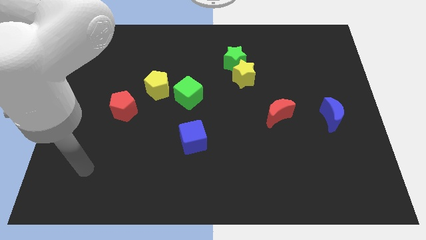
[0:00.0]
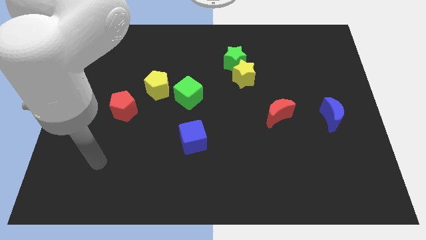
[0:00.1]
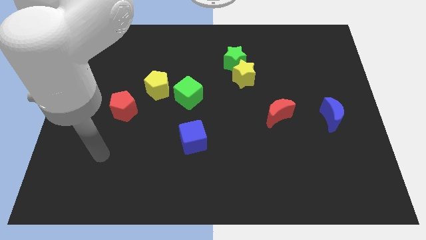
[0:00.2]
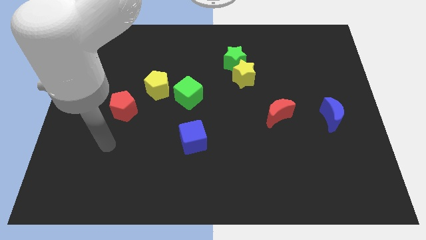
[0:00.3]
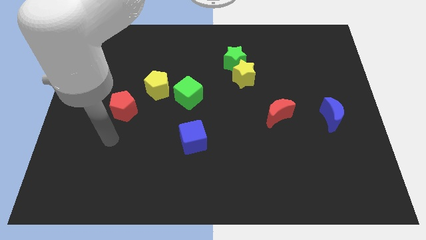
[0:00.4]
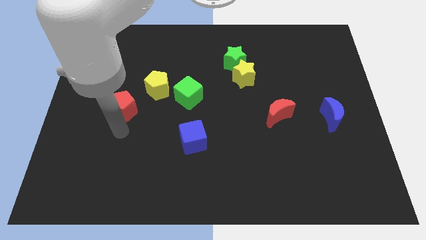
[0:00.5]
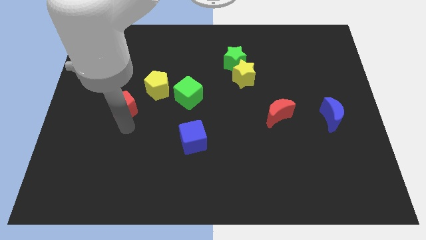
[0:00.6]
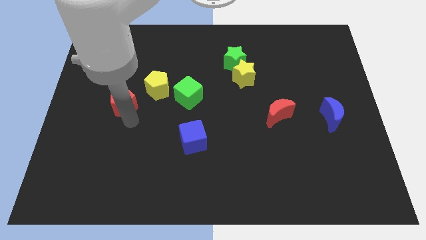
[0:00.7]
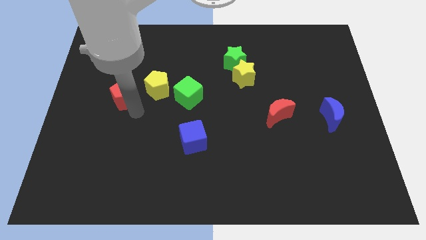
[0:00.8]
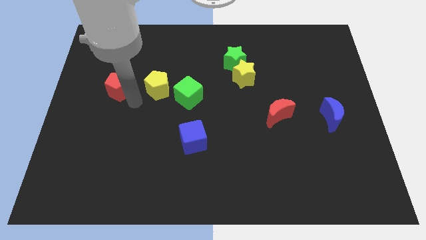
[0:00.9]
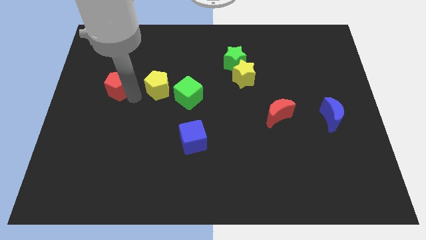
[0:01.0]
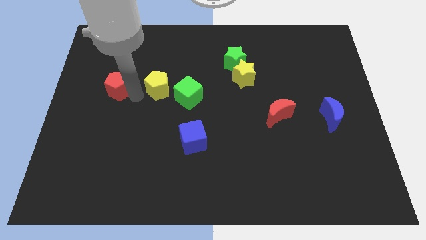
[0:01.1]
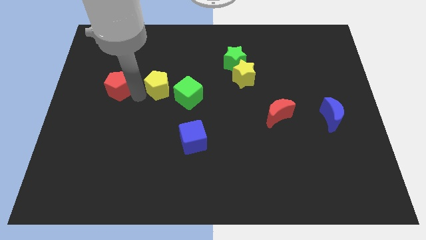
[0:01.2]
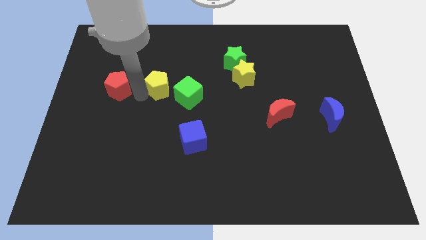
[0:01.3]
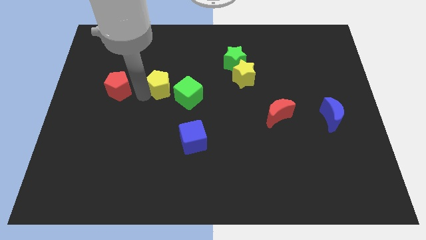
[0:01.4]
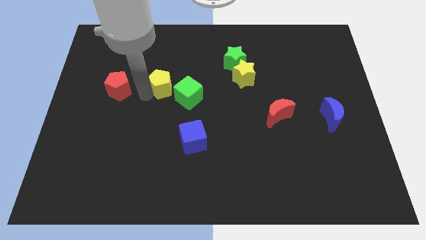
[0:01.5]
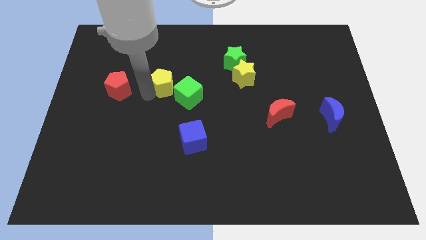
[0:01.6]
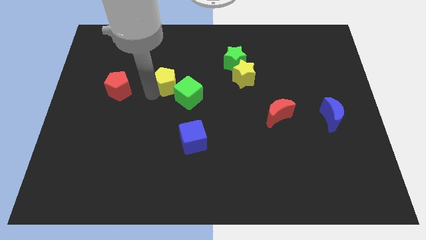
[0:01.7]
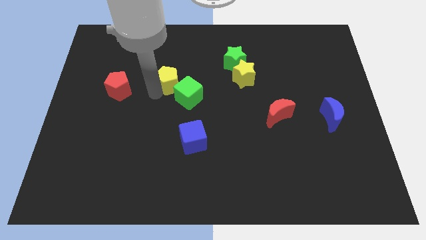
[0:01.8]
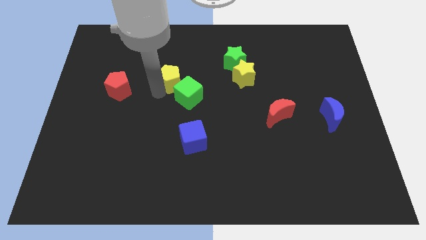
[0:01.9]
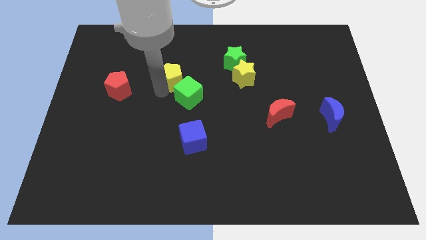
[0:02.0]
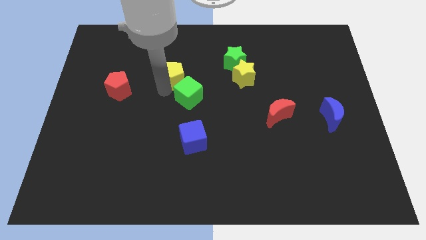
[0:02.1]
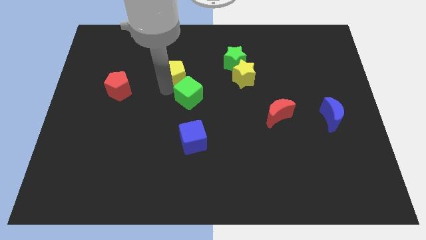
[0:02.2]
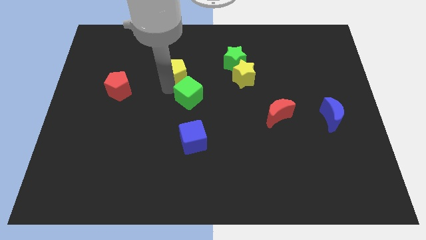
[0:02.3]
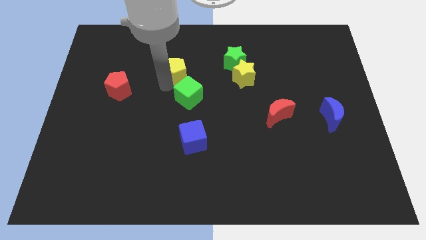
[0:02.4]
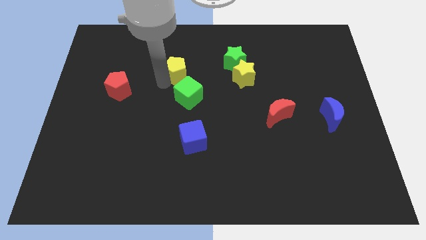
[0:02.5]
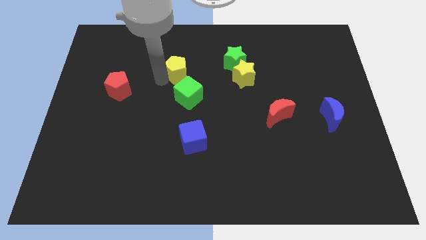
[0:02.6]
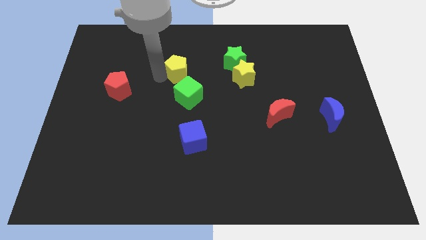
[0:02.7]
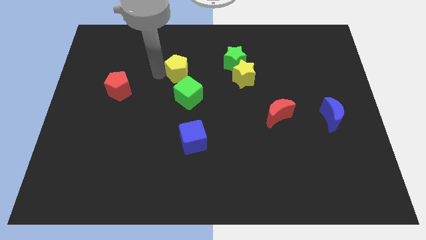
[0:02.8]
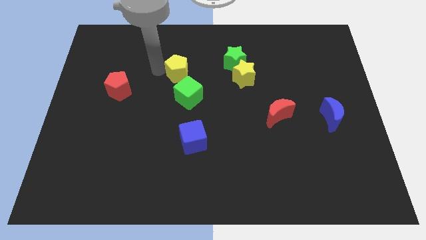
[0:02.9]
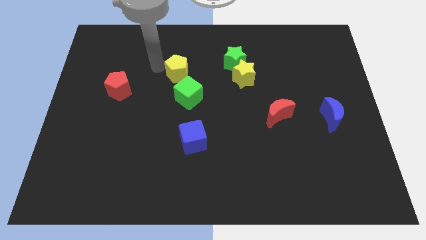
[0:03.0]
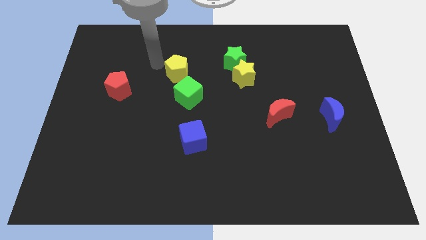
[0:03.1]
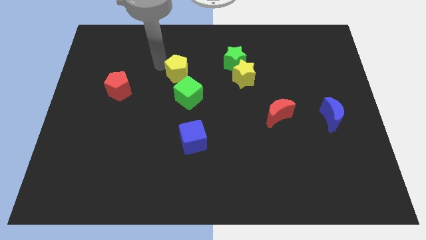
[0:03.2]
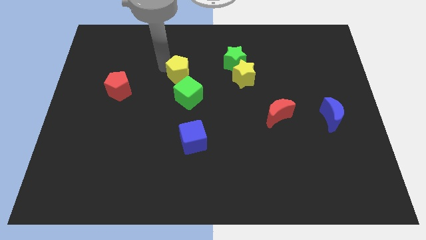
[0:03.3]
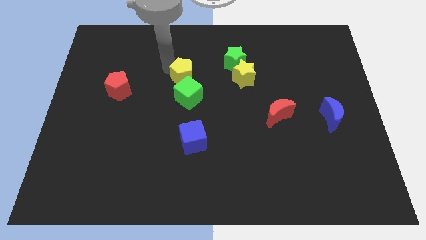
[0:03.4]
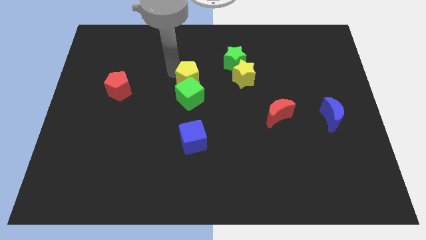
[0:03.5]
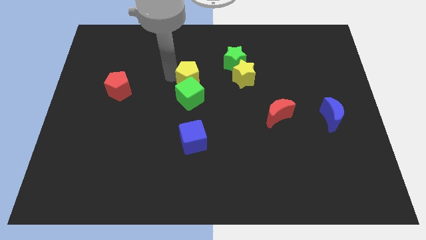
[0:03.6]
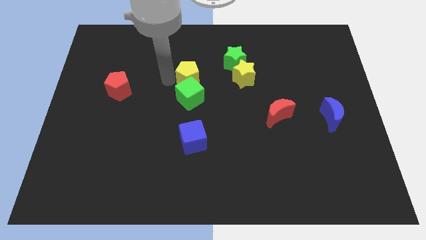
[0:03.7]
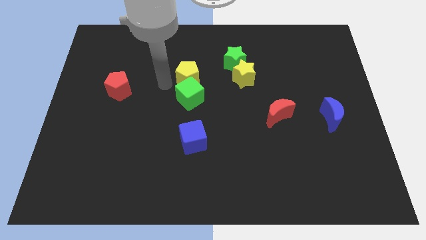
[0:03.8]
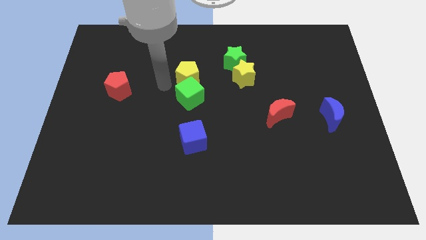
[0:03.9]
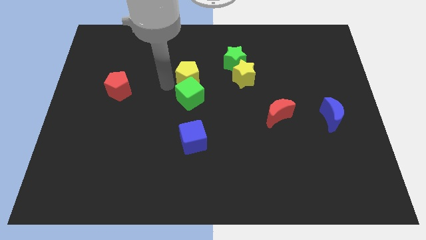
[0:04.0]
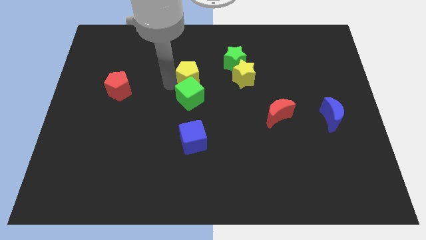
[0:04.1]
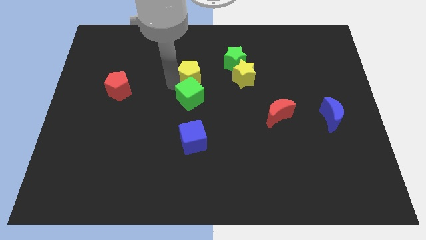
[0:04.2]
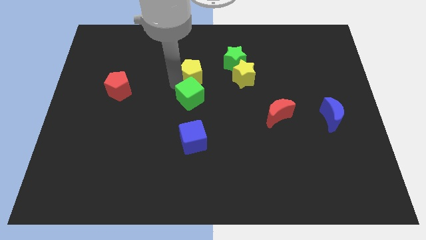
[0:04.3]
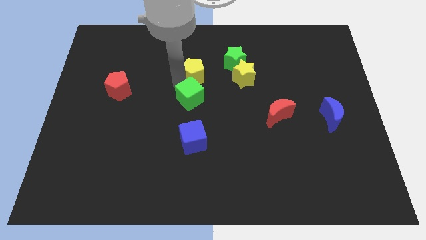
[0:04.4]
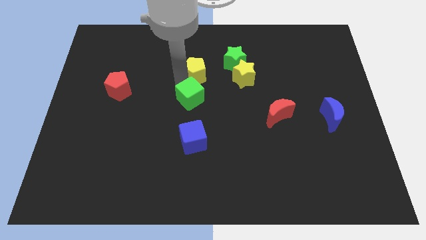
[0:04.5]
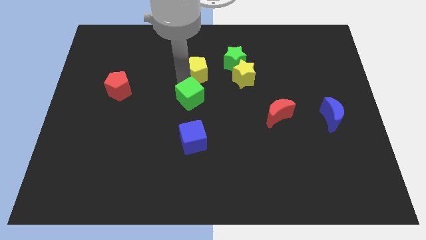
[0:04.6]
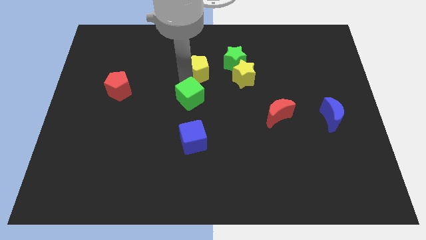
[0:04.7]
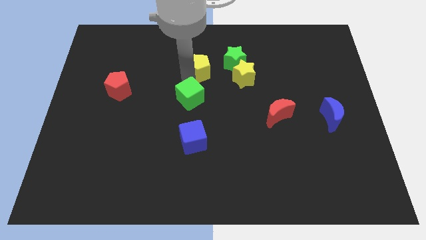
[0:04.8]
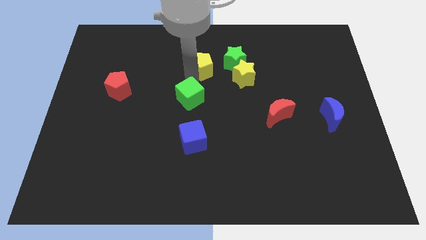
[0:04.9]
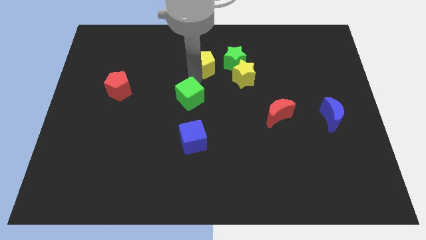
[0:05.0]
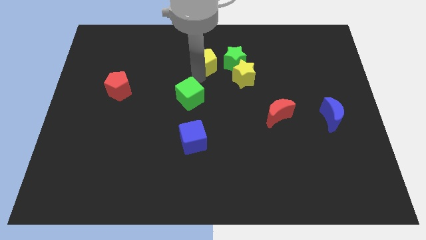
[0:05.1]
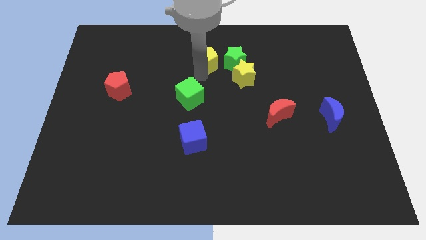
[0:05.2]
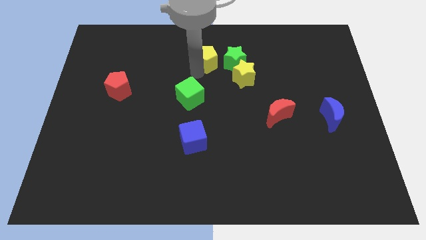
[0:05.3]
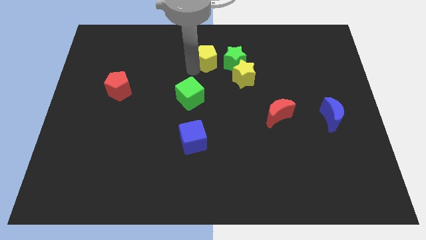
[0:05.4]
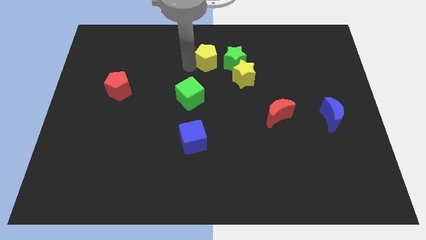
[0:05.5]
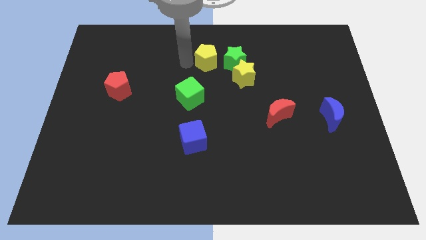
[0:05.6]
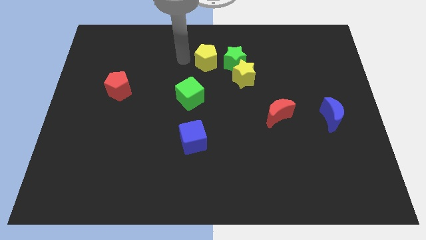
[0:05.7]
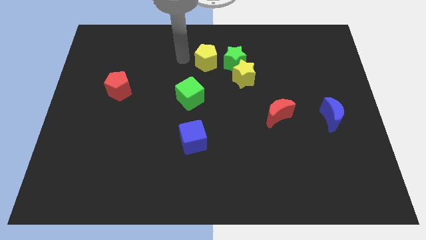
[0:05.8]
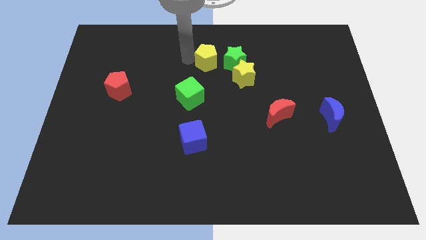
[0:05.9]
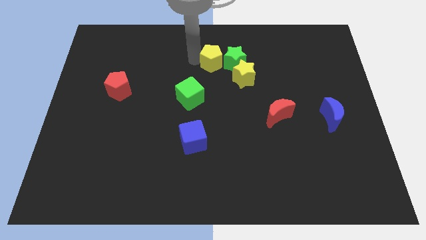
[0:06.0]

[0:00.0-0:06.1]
move the yellow pentagon next to the green star

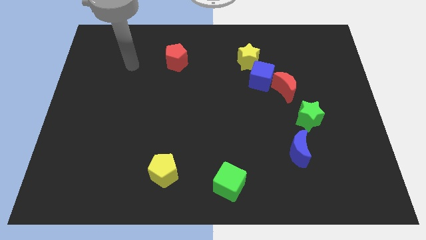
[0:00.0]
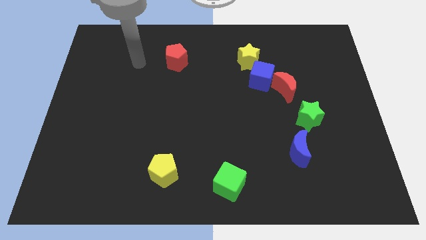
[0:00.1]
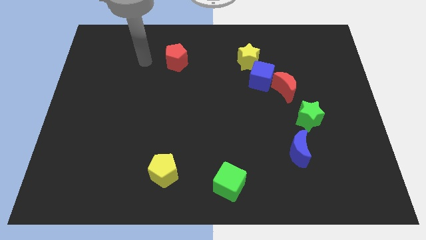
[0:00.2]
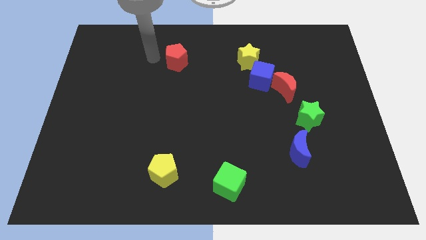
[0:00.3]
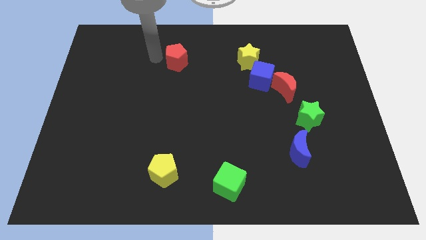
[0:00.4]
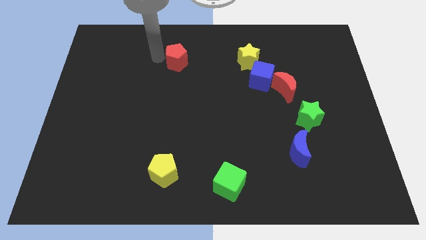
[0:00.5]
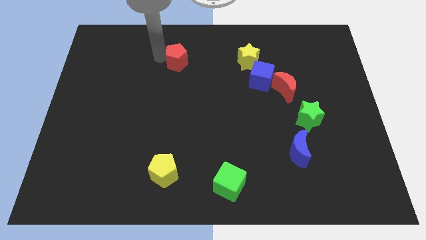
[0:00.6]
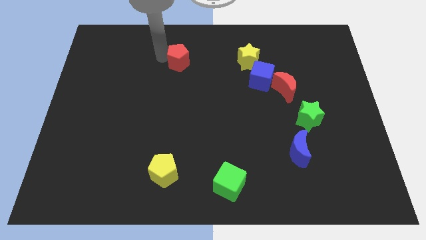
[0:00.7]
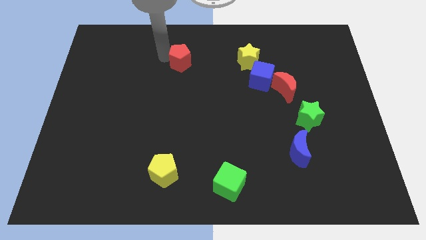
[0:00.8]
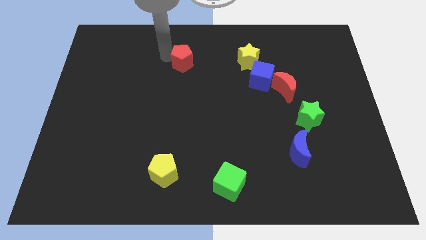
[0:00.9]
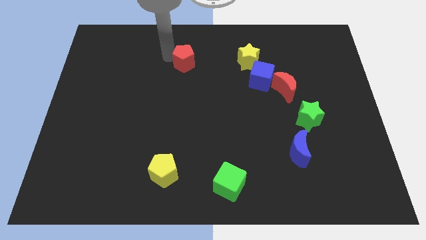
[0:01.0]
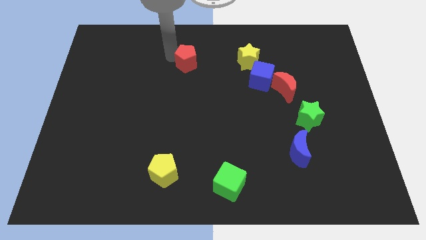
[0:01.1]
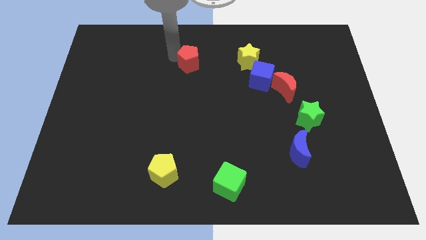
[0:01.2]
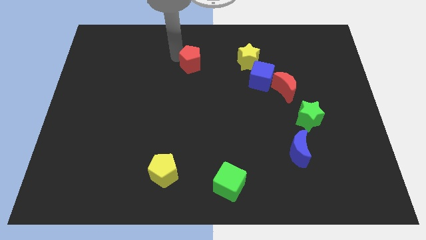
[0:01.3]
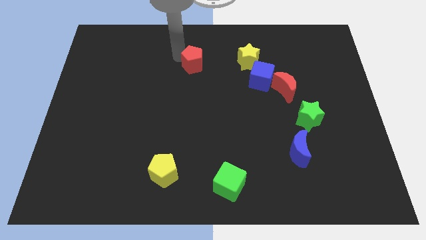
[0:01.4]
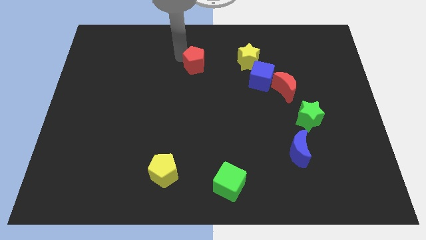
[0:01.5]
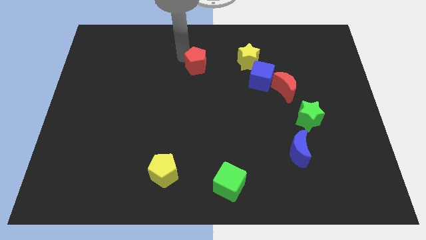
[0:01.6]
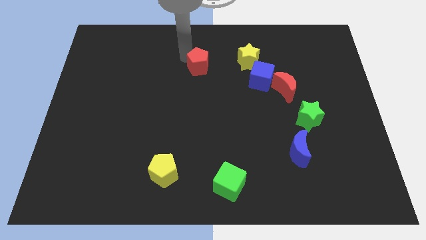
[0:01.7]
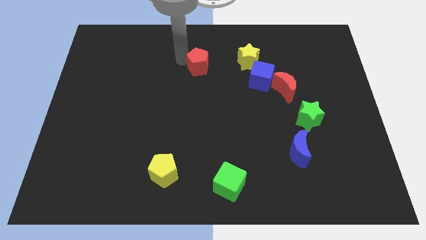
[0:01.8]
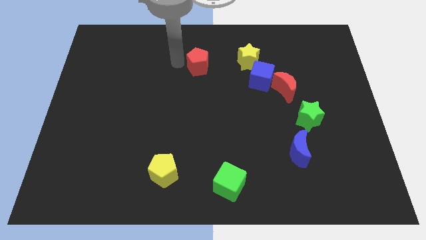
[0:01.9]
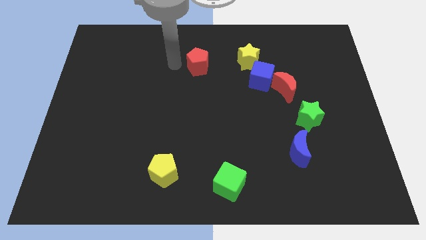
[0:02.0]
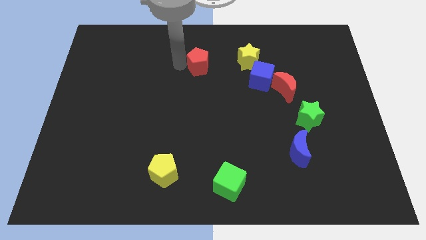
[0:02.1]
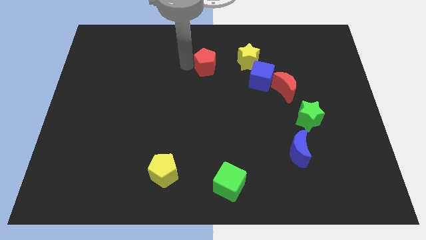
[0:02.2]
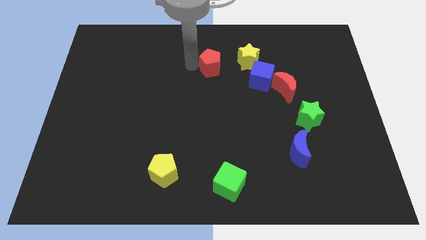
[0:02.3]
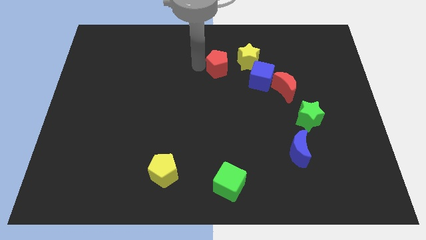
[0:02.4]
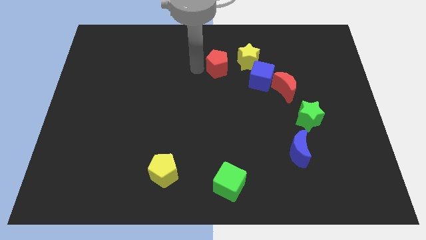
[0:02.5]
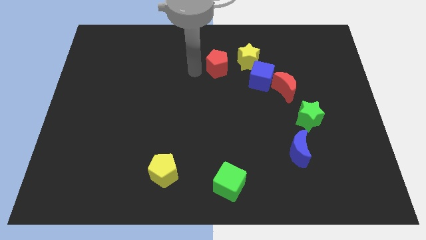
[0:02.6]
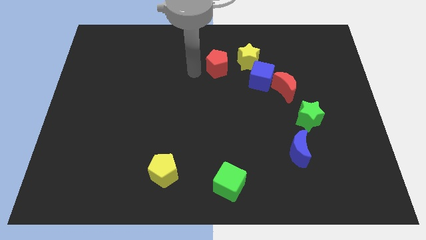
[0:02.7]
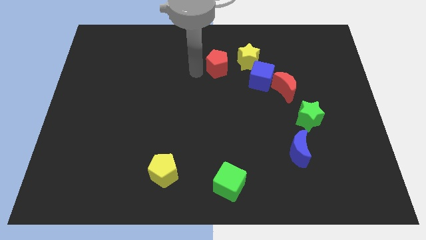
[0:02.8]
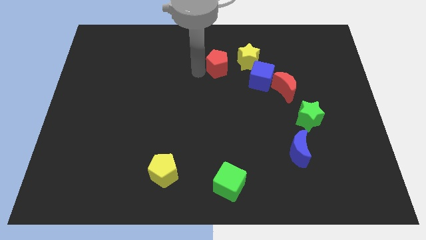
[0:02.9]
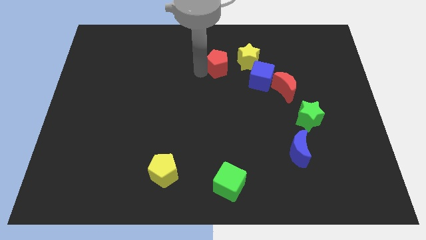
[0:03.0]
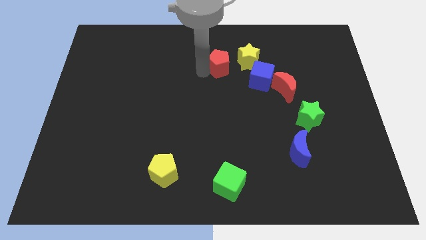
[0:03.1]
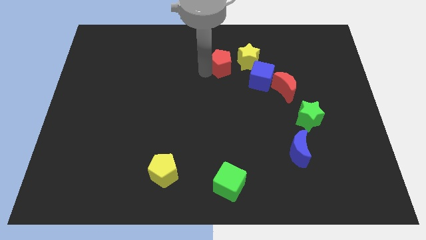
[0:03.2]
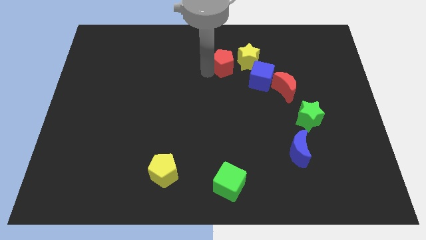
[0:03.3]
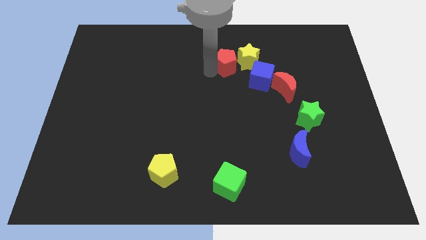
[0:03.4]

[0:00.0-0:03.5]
slide the red pentagon next to the yellow star
